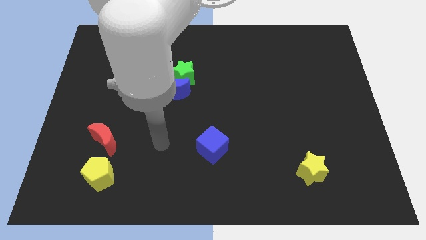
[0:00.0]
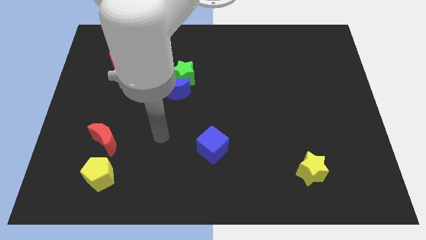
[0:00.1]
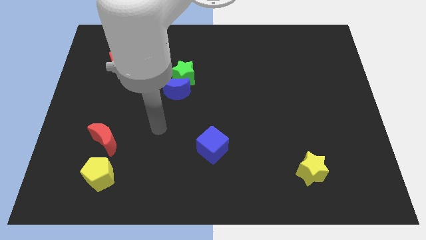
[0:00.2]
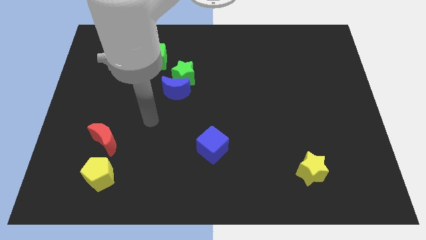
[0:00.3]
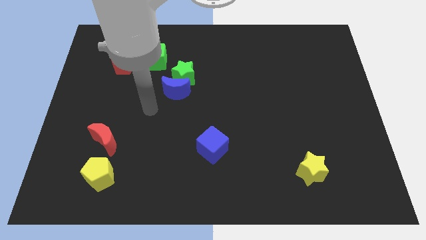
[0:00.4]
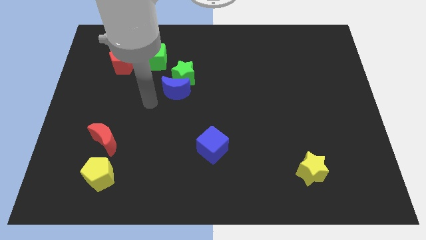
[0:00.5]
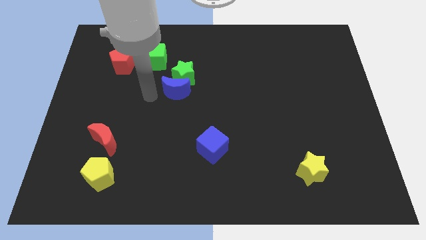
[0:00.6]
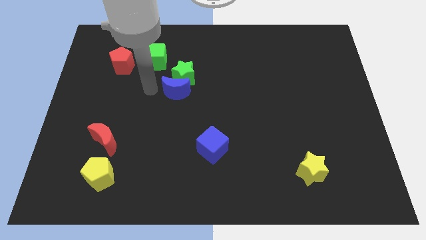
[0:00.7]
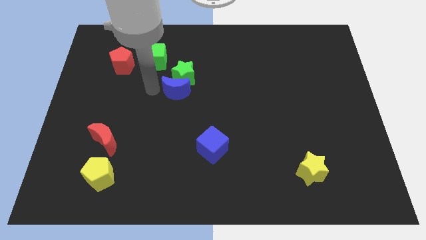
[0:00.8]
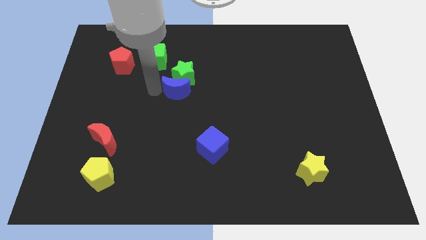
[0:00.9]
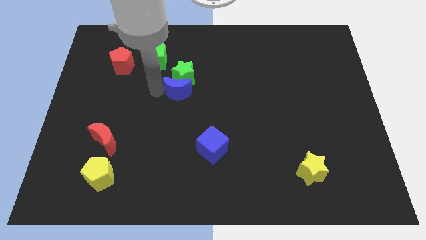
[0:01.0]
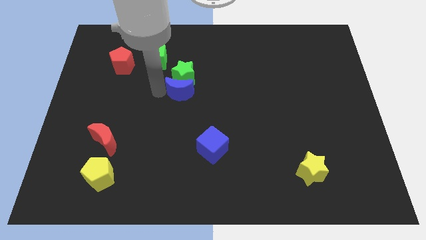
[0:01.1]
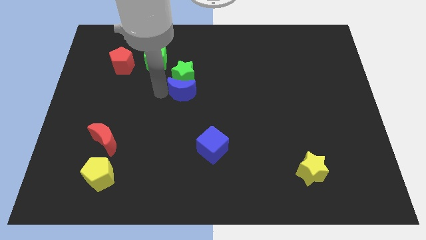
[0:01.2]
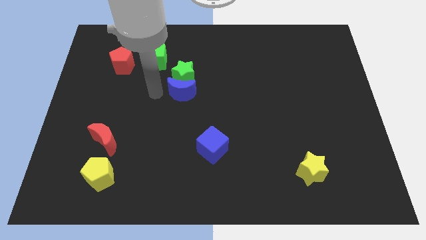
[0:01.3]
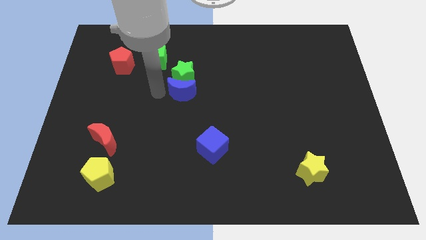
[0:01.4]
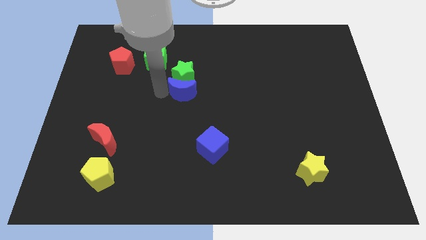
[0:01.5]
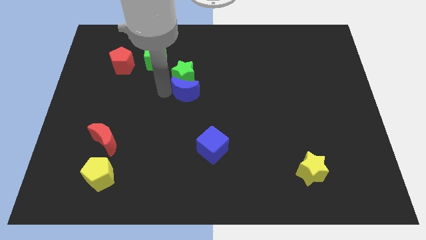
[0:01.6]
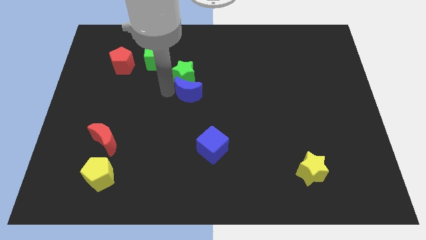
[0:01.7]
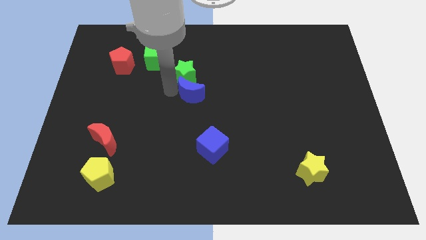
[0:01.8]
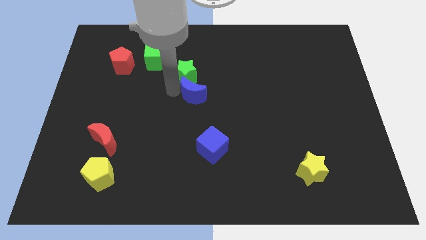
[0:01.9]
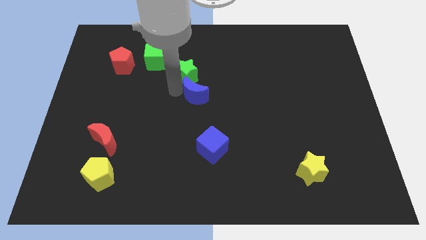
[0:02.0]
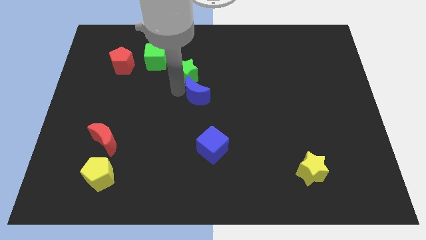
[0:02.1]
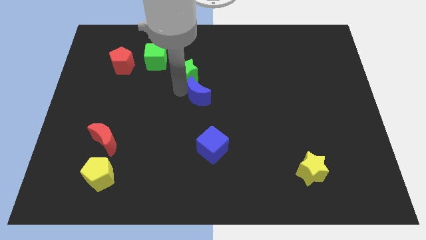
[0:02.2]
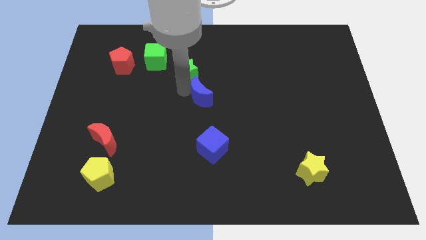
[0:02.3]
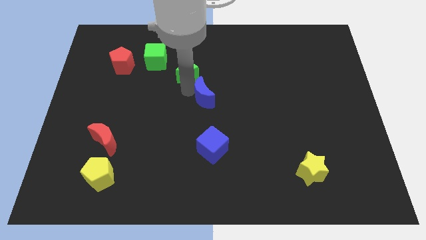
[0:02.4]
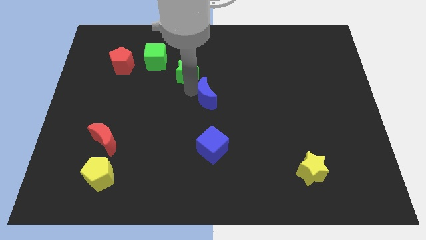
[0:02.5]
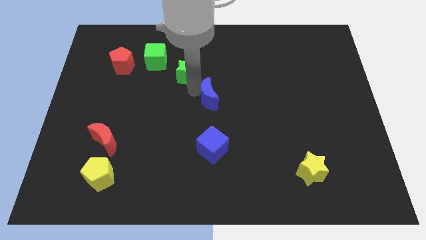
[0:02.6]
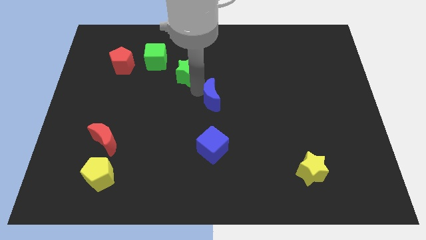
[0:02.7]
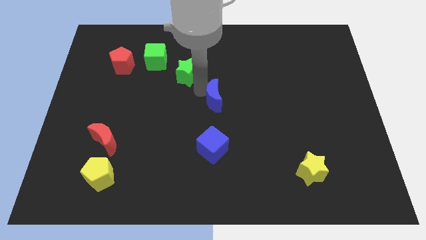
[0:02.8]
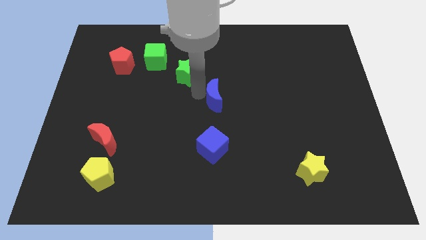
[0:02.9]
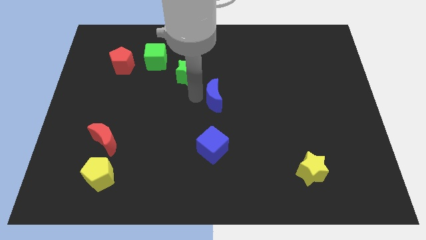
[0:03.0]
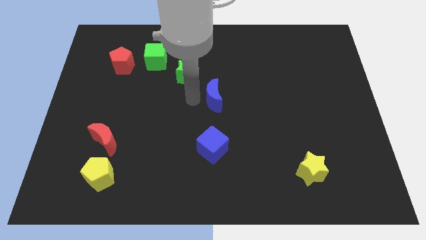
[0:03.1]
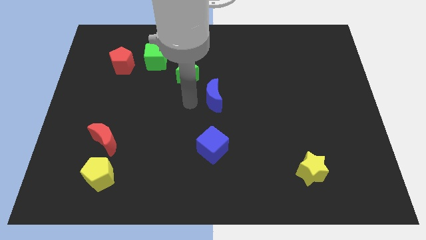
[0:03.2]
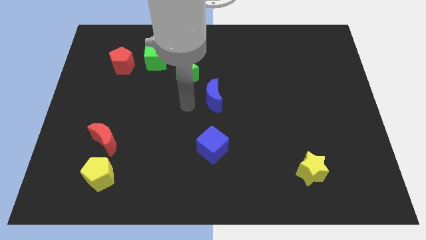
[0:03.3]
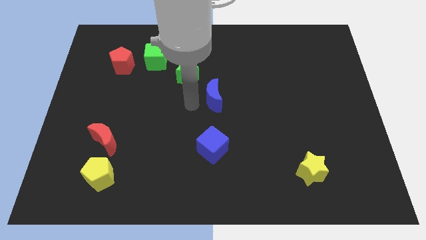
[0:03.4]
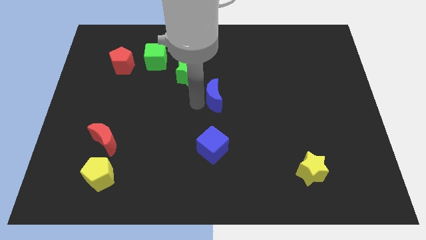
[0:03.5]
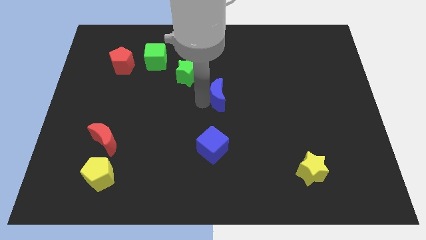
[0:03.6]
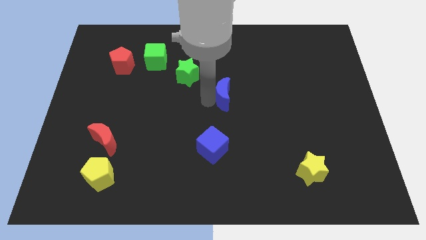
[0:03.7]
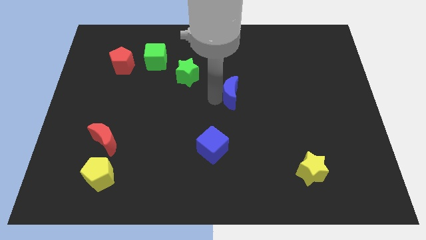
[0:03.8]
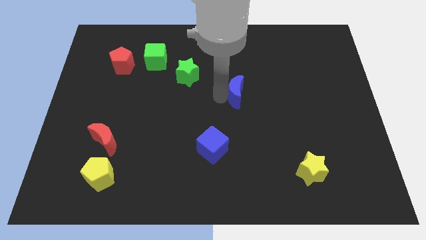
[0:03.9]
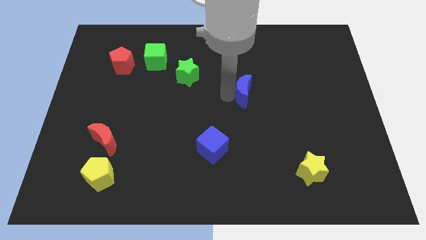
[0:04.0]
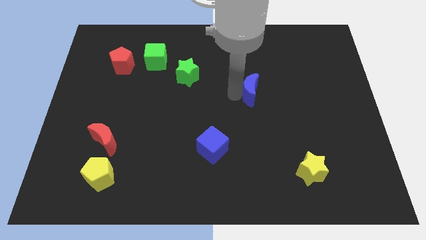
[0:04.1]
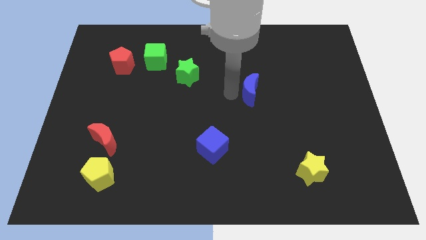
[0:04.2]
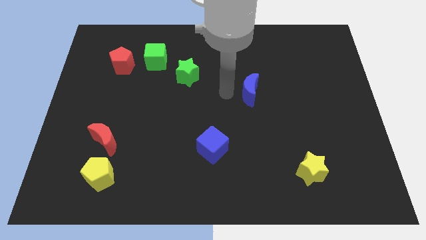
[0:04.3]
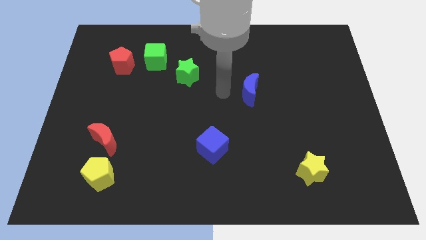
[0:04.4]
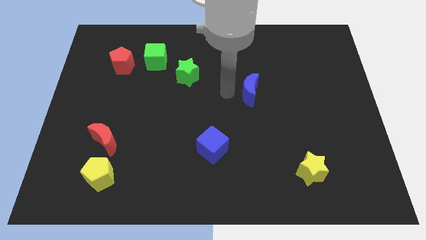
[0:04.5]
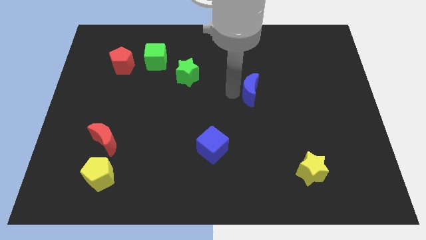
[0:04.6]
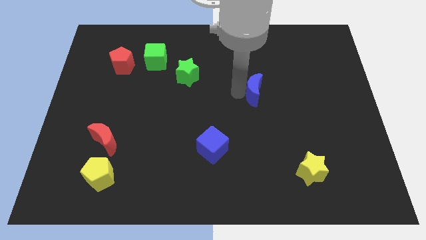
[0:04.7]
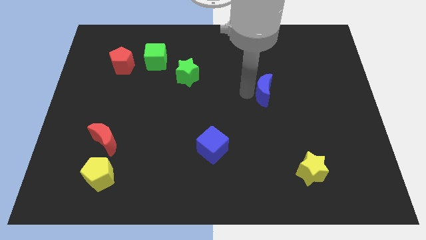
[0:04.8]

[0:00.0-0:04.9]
slide the blue moon right

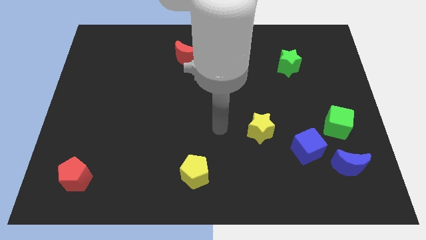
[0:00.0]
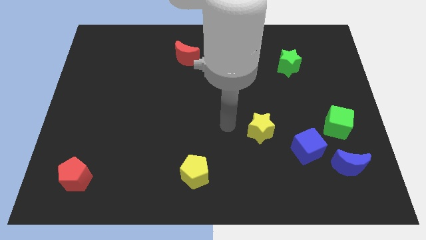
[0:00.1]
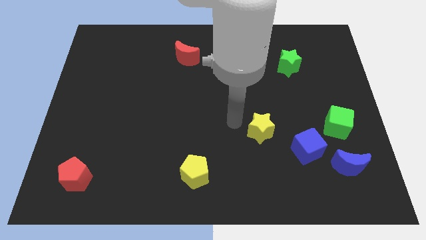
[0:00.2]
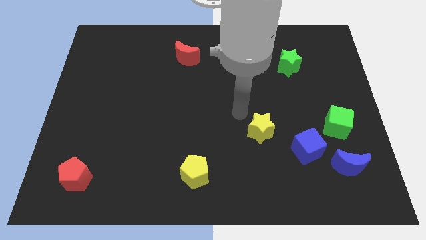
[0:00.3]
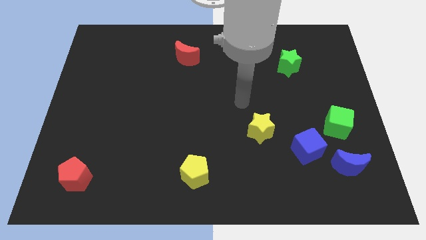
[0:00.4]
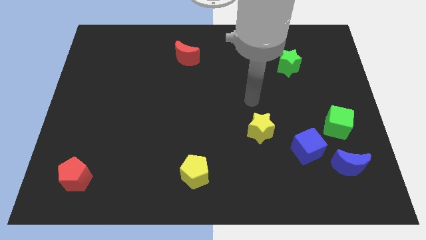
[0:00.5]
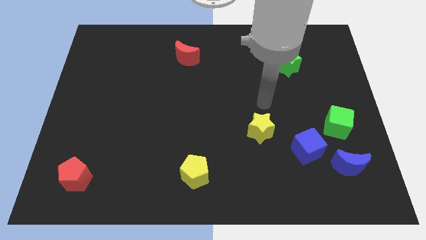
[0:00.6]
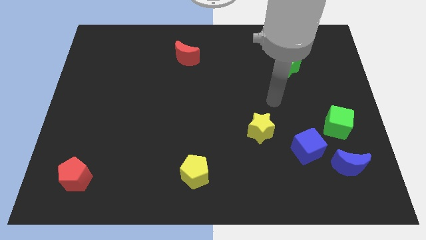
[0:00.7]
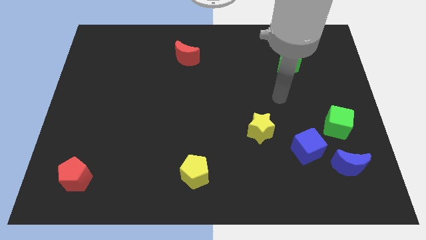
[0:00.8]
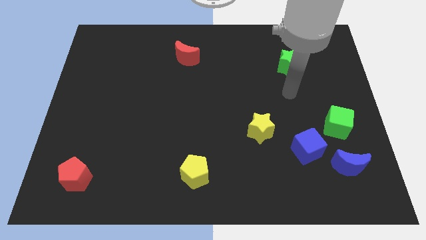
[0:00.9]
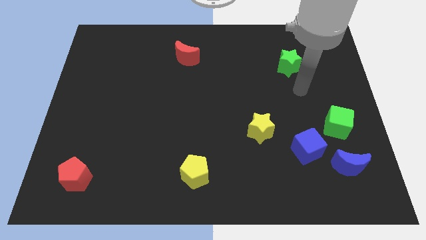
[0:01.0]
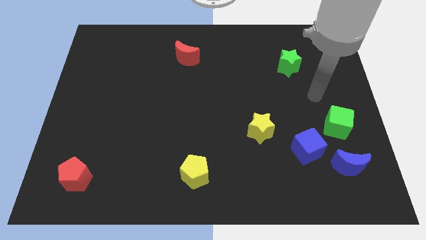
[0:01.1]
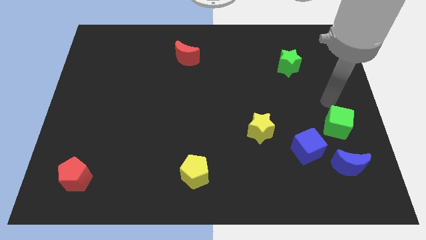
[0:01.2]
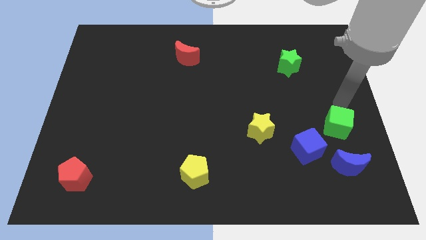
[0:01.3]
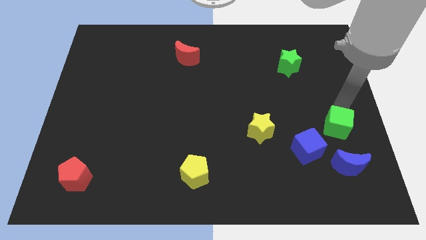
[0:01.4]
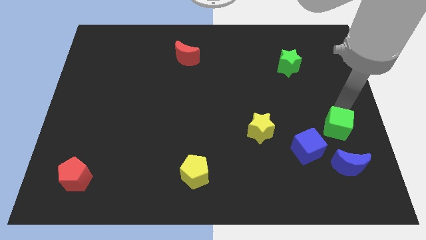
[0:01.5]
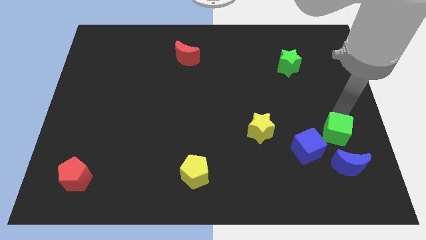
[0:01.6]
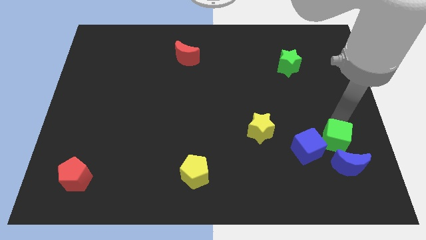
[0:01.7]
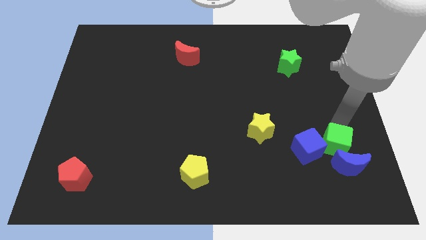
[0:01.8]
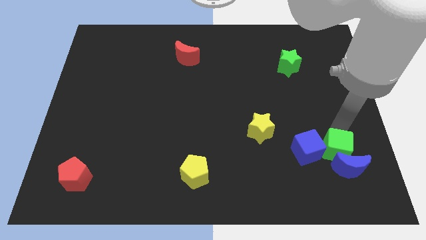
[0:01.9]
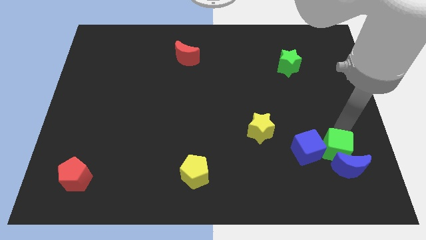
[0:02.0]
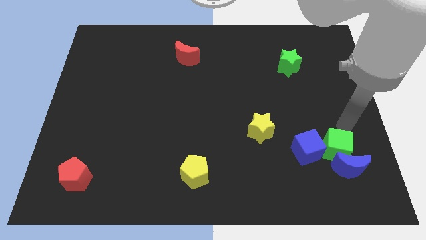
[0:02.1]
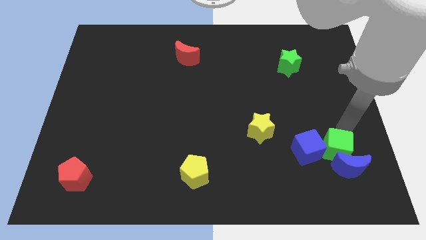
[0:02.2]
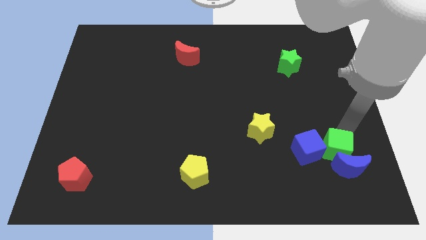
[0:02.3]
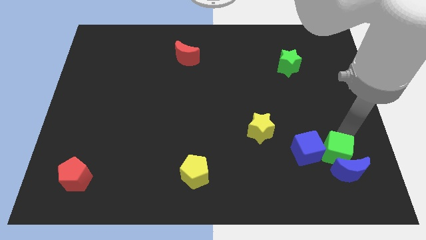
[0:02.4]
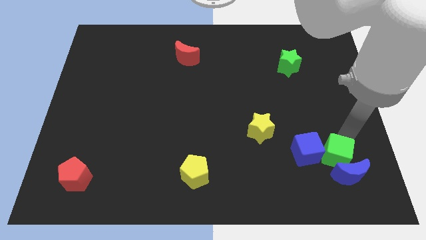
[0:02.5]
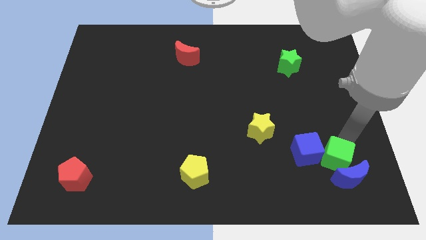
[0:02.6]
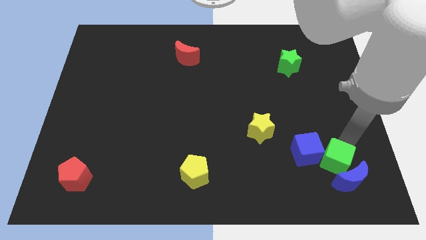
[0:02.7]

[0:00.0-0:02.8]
move the green cube a little bit down and left diagonally

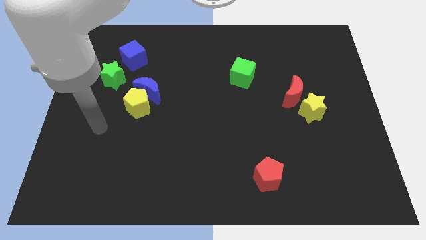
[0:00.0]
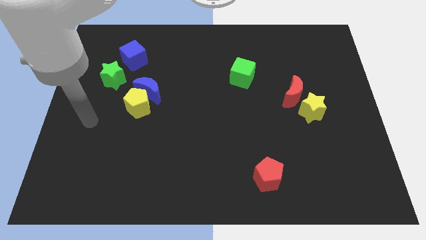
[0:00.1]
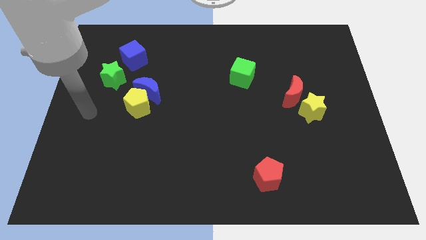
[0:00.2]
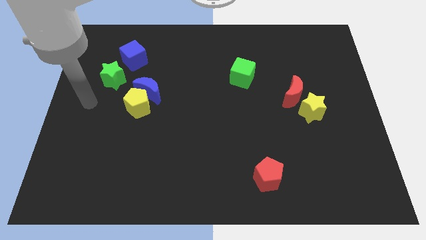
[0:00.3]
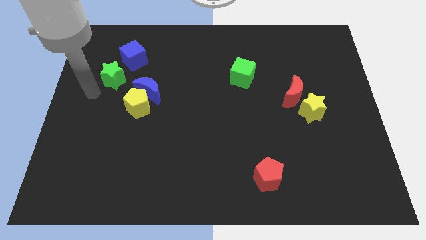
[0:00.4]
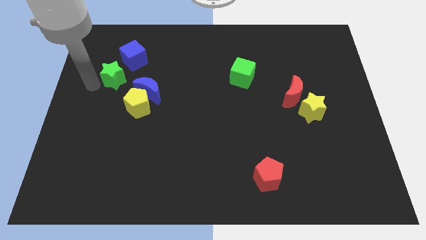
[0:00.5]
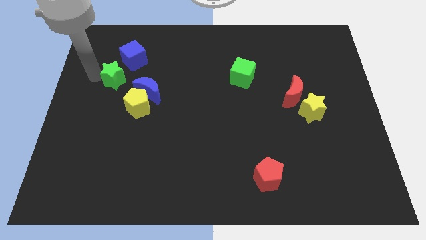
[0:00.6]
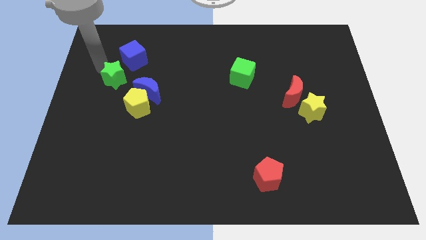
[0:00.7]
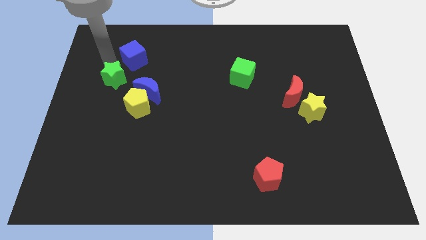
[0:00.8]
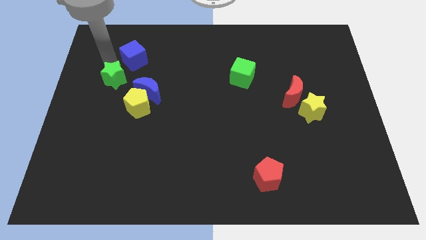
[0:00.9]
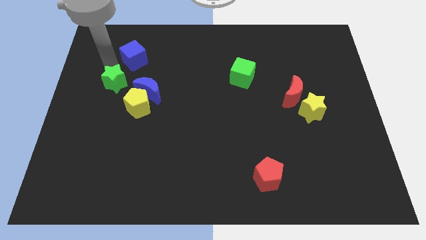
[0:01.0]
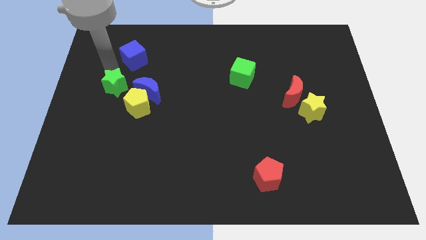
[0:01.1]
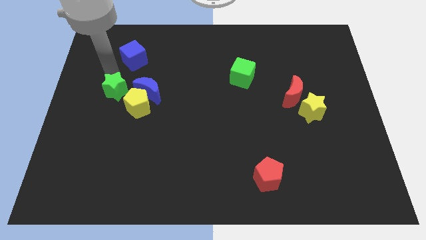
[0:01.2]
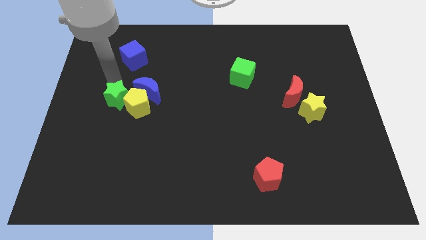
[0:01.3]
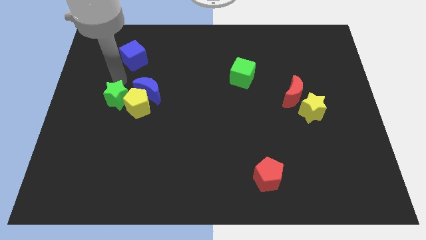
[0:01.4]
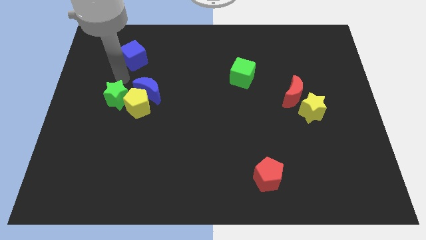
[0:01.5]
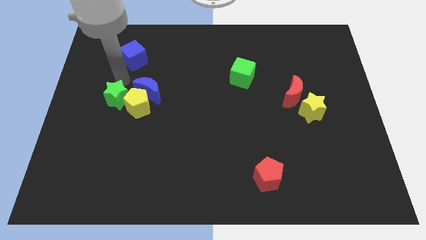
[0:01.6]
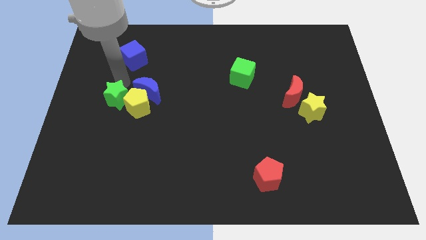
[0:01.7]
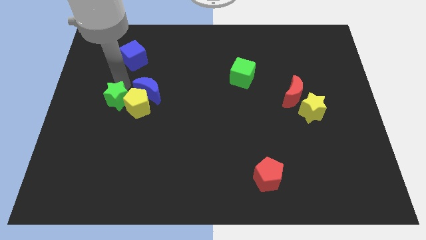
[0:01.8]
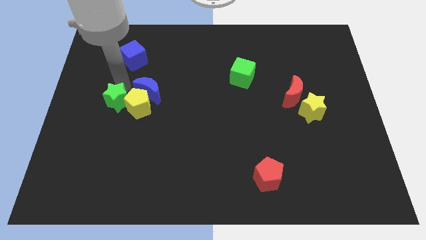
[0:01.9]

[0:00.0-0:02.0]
slightly move the green star down
